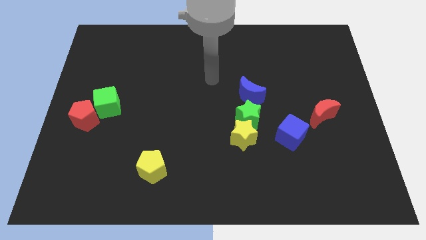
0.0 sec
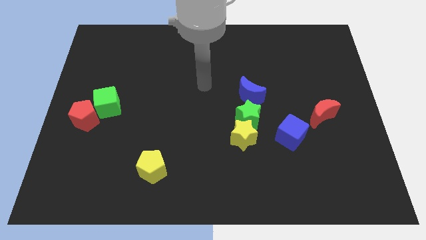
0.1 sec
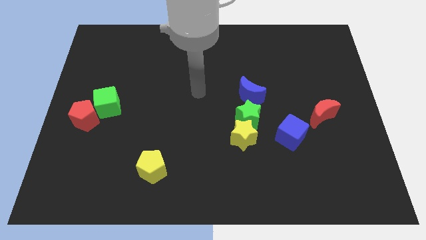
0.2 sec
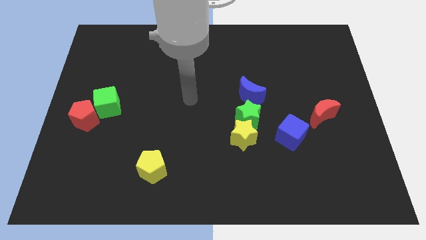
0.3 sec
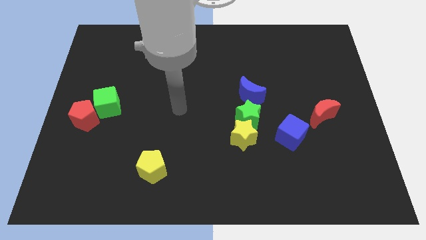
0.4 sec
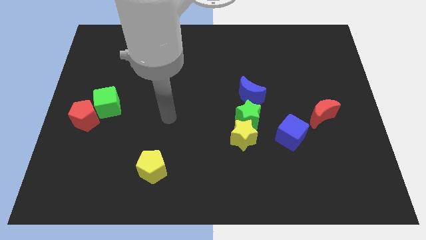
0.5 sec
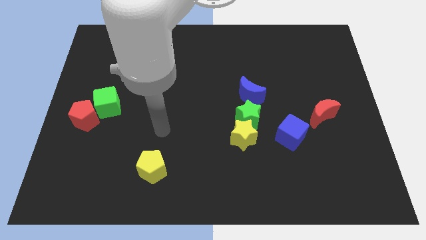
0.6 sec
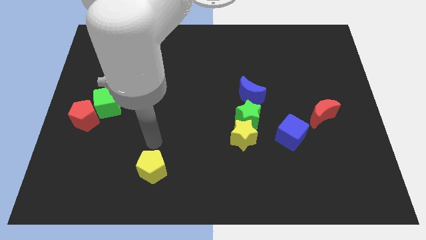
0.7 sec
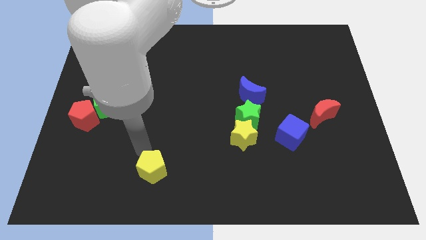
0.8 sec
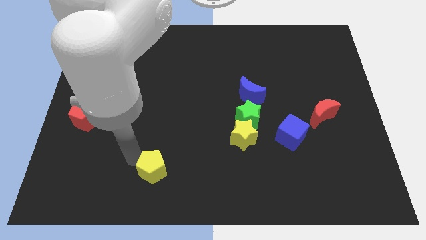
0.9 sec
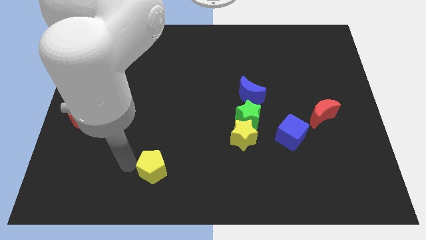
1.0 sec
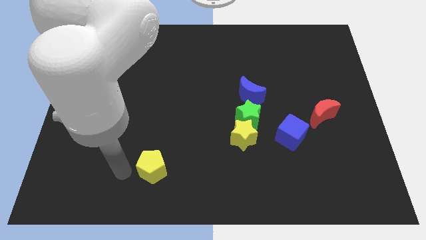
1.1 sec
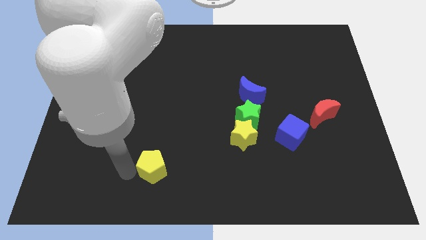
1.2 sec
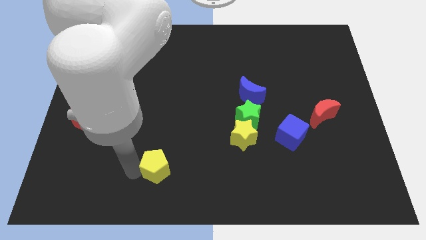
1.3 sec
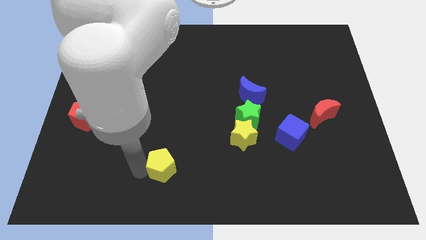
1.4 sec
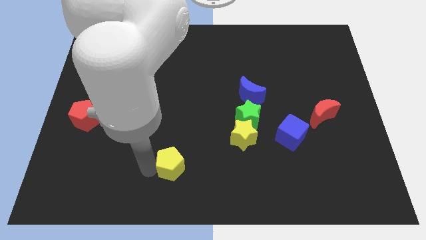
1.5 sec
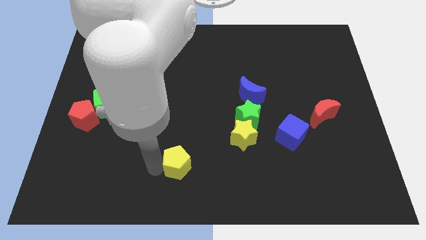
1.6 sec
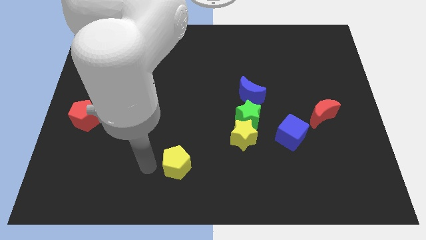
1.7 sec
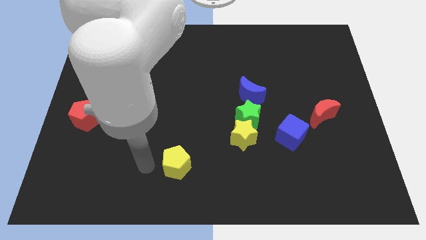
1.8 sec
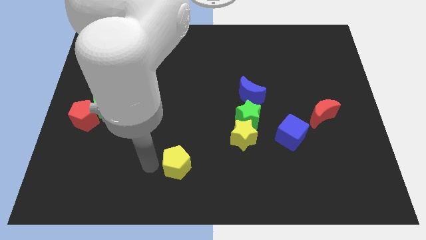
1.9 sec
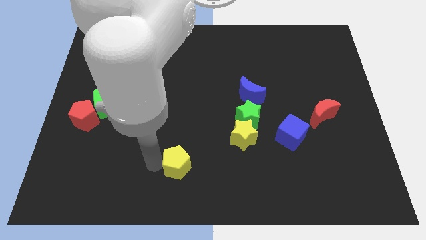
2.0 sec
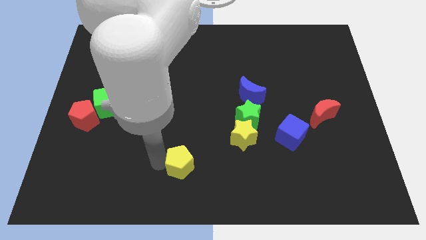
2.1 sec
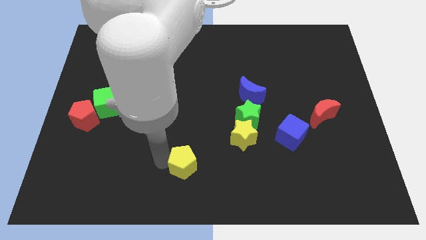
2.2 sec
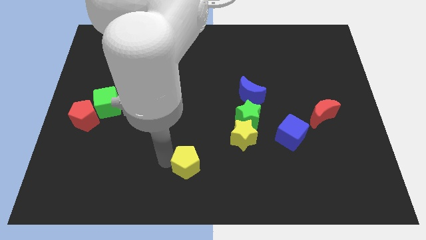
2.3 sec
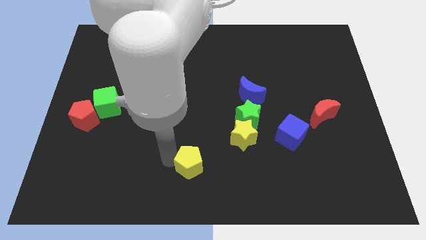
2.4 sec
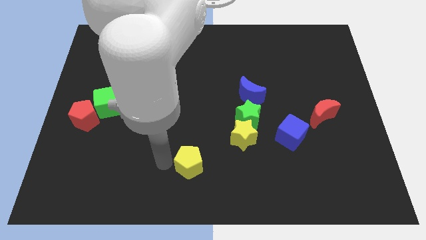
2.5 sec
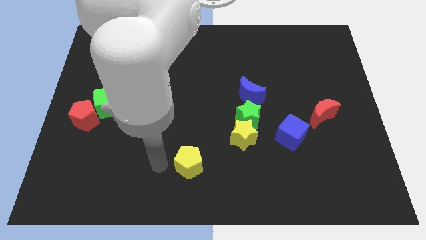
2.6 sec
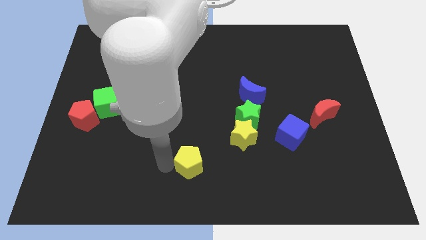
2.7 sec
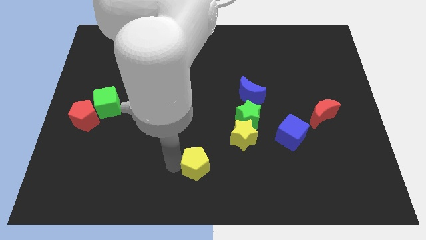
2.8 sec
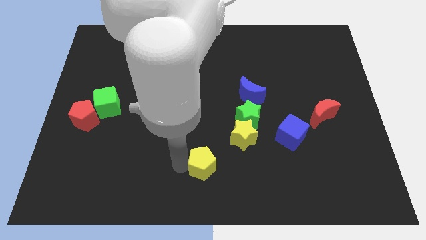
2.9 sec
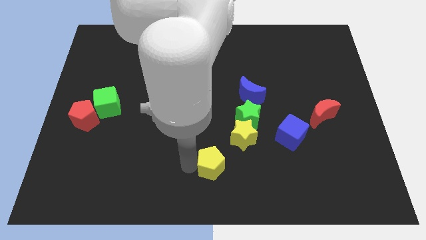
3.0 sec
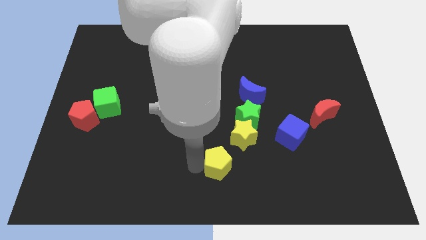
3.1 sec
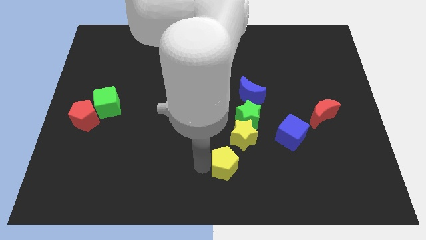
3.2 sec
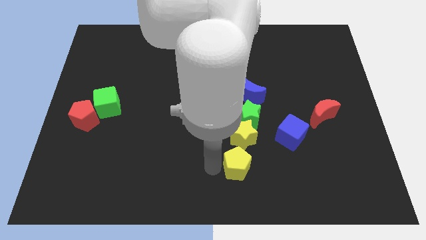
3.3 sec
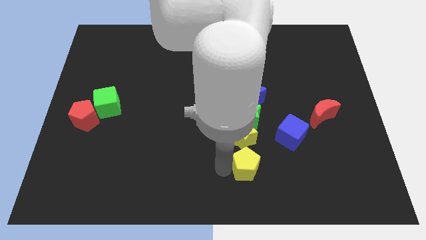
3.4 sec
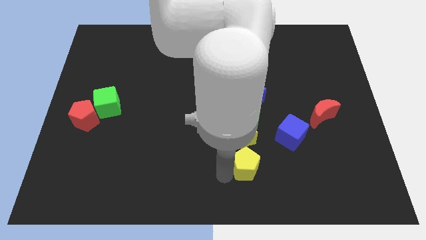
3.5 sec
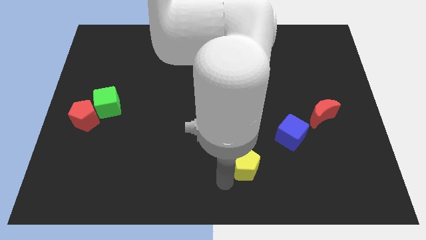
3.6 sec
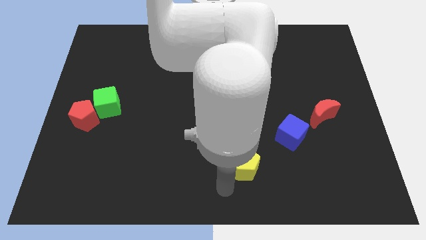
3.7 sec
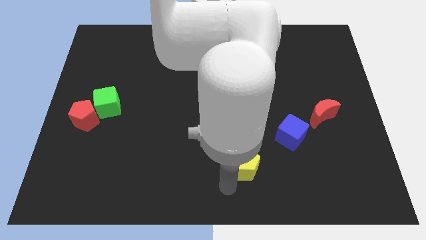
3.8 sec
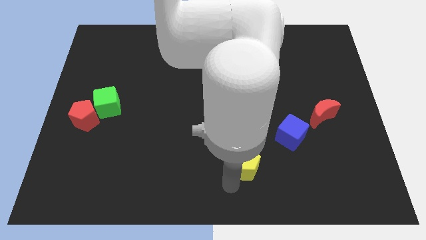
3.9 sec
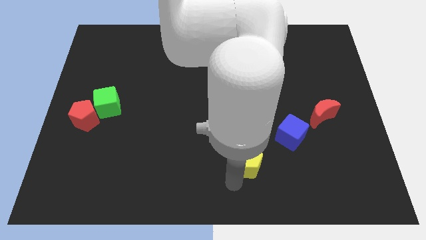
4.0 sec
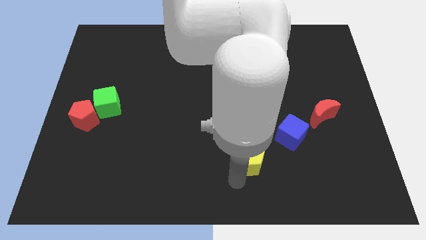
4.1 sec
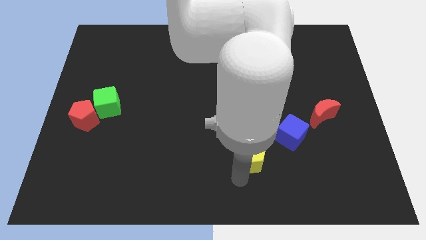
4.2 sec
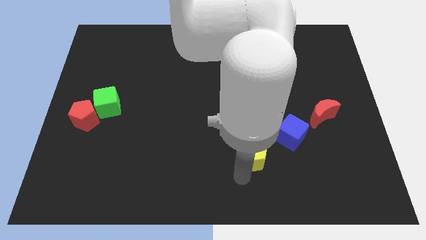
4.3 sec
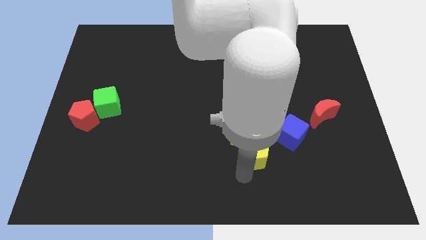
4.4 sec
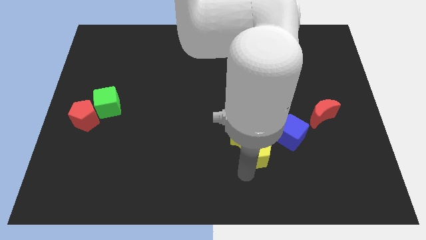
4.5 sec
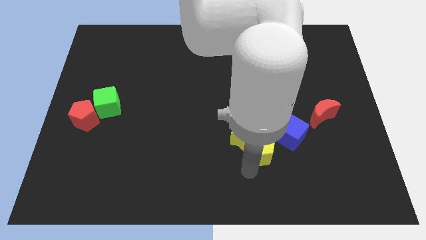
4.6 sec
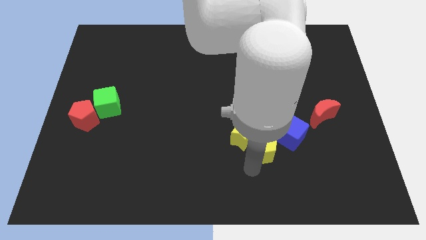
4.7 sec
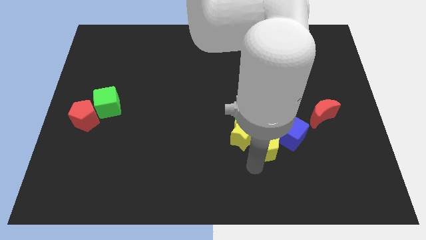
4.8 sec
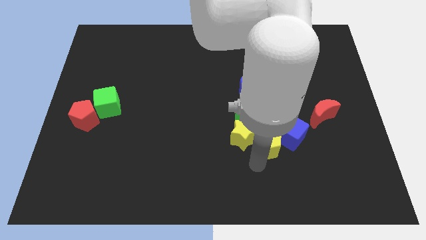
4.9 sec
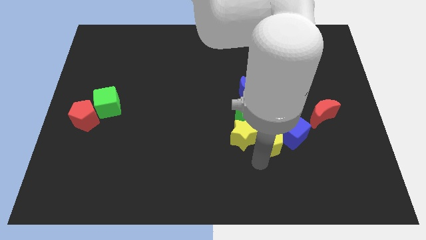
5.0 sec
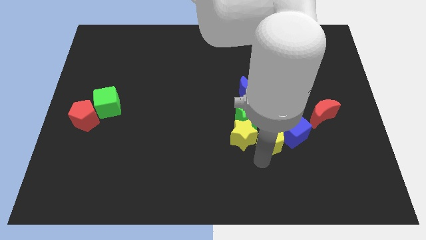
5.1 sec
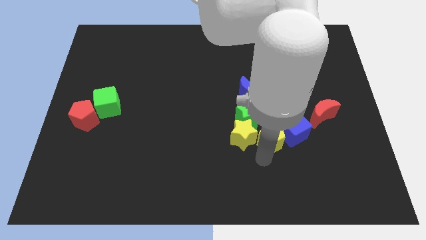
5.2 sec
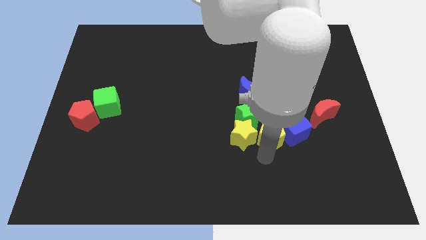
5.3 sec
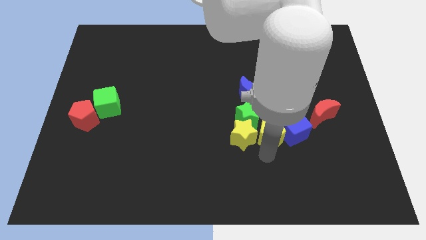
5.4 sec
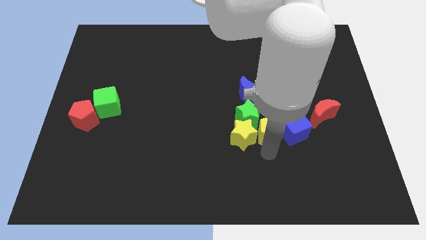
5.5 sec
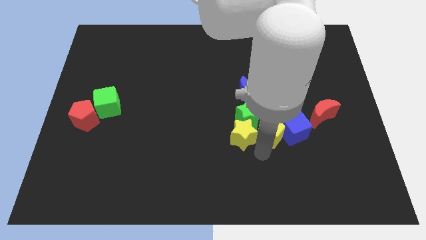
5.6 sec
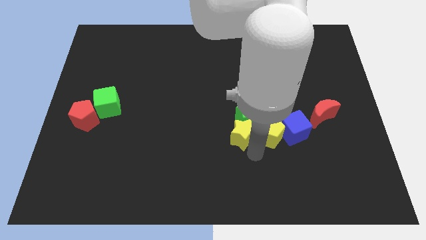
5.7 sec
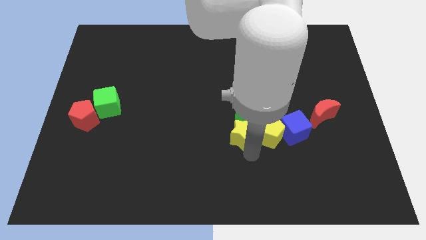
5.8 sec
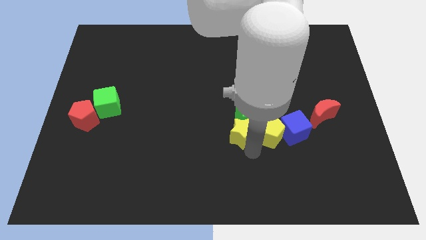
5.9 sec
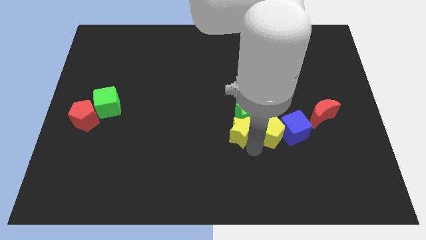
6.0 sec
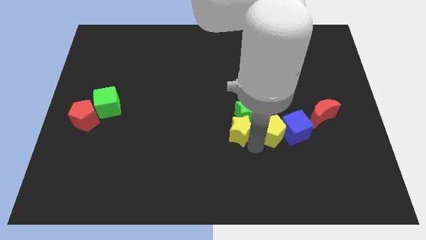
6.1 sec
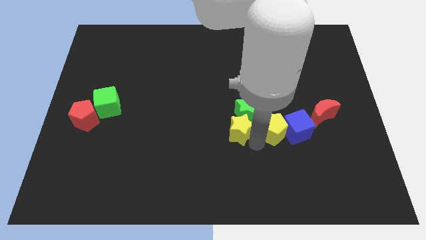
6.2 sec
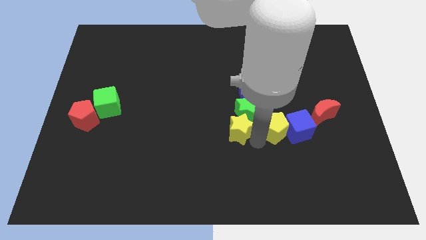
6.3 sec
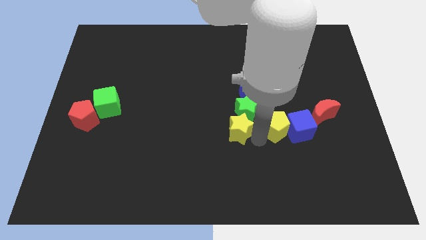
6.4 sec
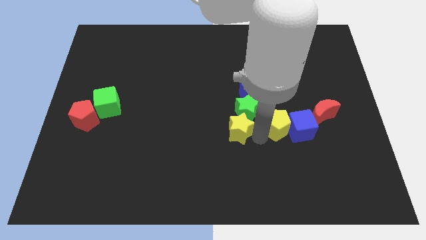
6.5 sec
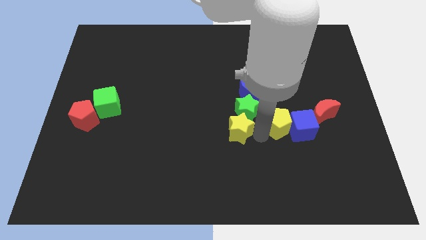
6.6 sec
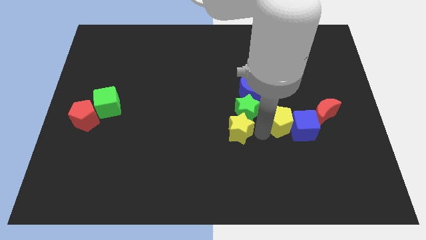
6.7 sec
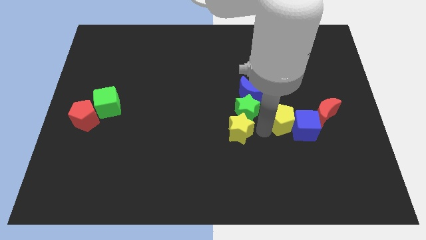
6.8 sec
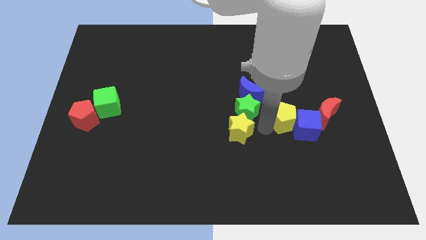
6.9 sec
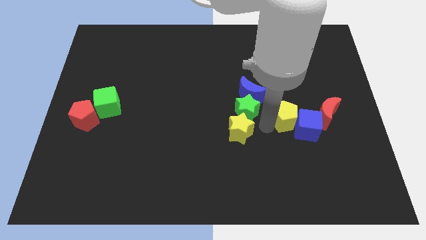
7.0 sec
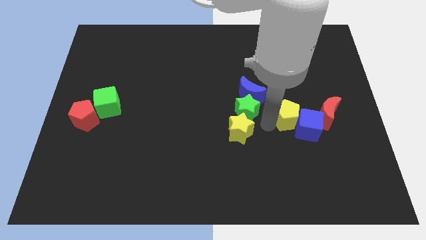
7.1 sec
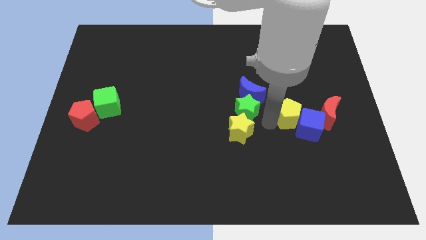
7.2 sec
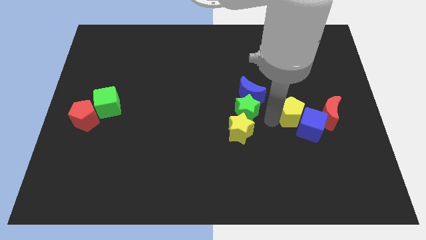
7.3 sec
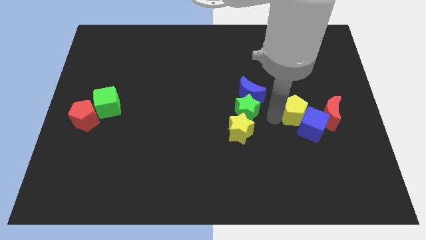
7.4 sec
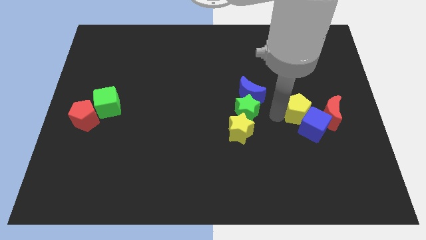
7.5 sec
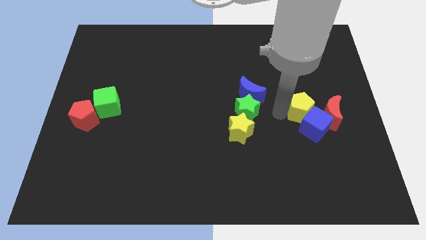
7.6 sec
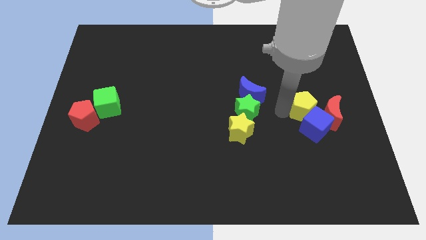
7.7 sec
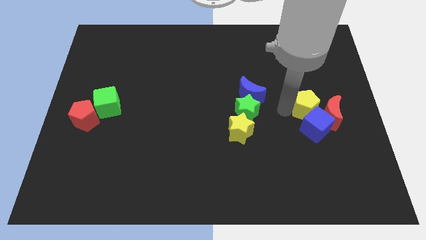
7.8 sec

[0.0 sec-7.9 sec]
put the yellow pentagon towards the red moon
